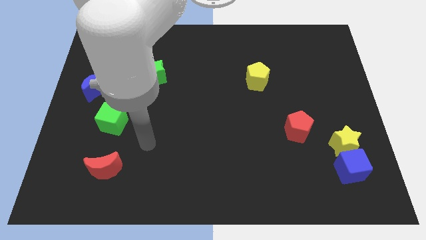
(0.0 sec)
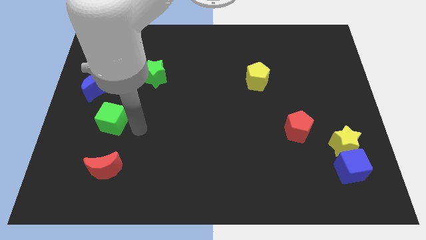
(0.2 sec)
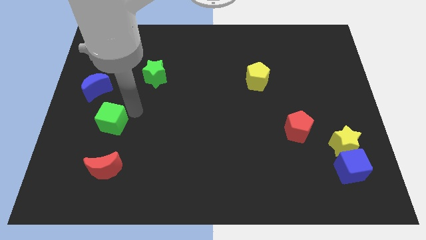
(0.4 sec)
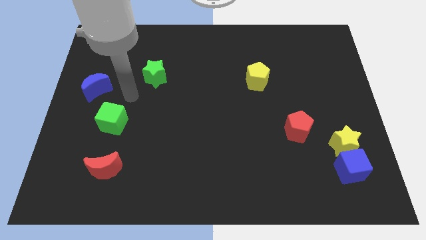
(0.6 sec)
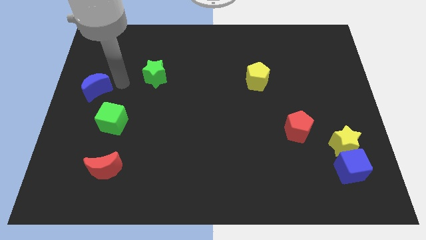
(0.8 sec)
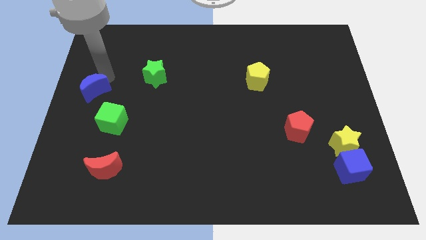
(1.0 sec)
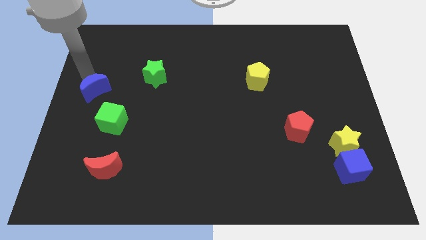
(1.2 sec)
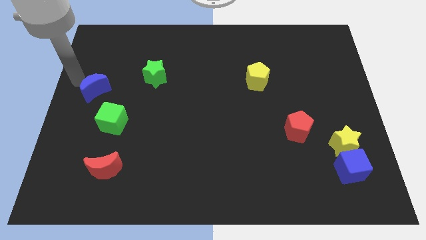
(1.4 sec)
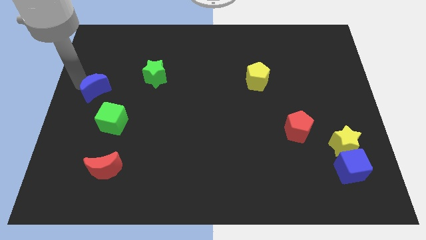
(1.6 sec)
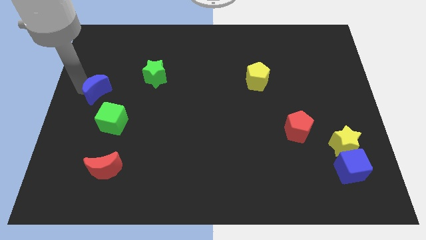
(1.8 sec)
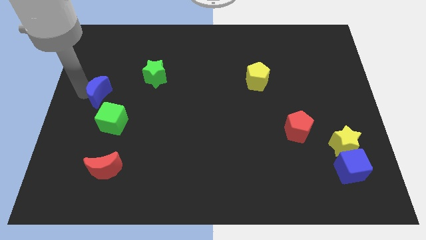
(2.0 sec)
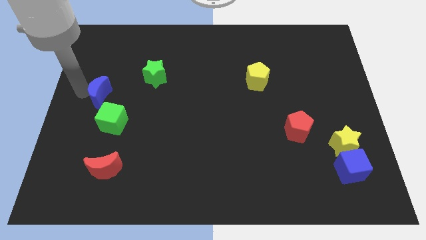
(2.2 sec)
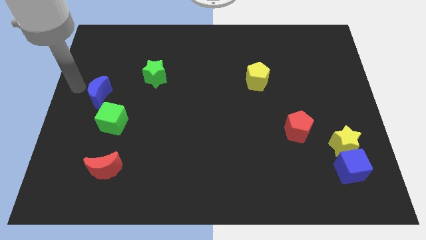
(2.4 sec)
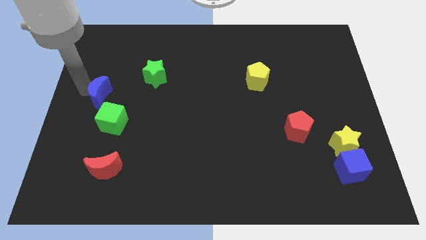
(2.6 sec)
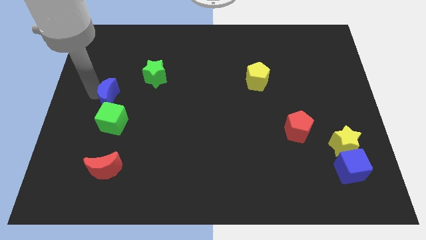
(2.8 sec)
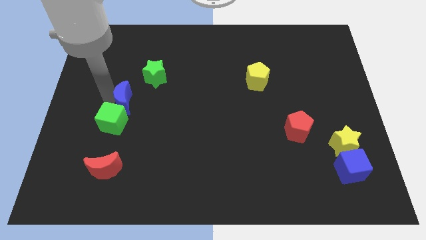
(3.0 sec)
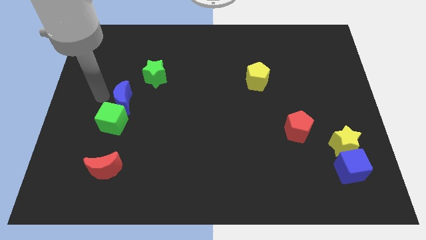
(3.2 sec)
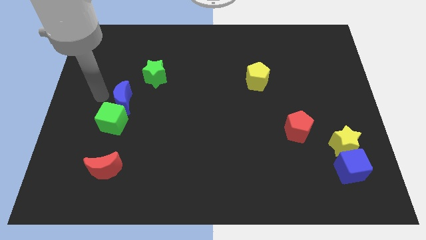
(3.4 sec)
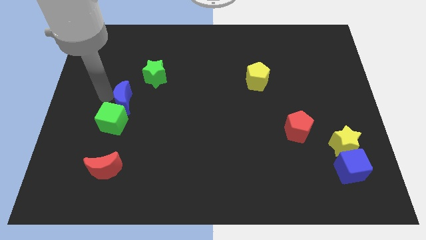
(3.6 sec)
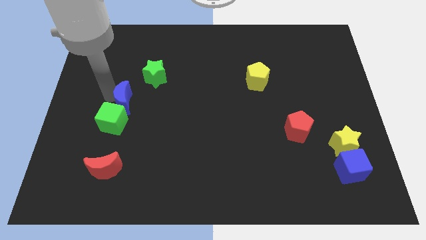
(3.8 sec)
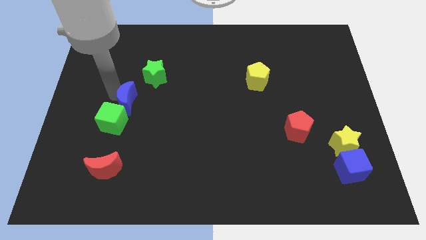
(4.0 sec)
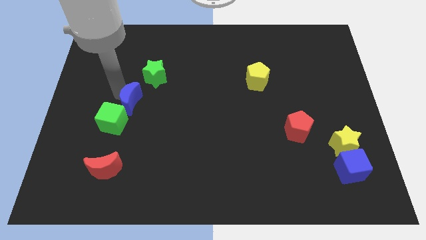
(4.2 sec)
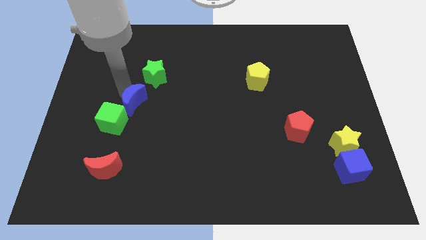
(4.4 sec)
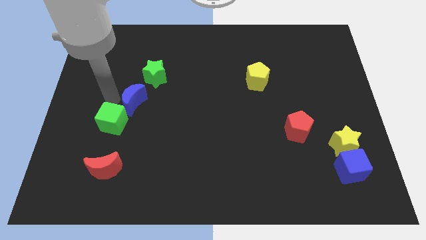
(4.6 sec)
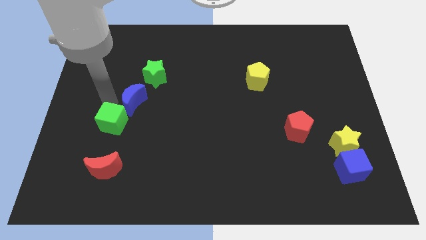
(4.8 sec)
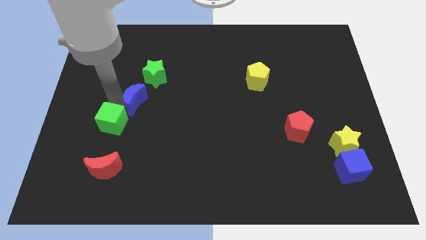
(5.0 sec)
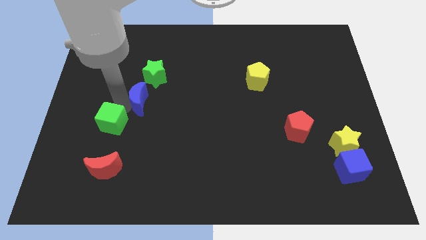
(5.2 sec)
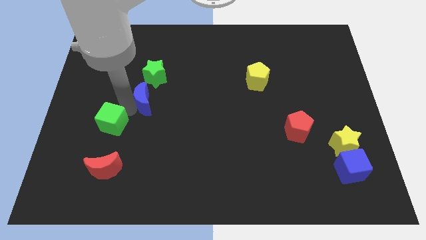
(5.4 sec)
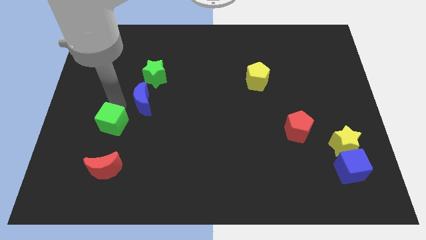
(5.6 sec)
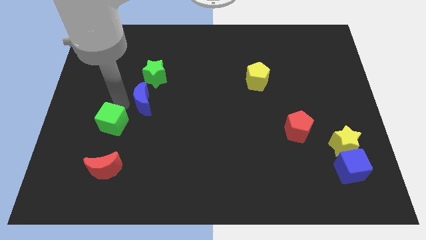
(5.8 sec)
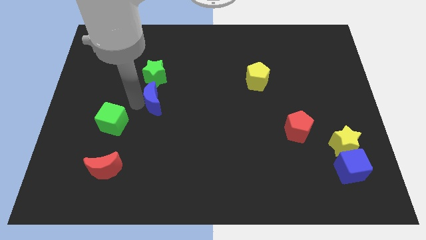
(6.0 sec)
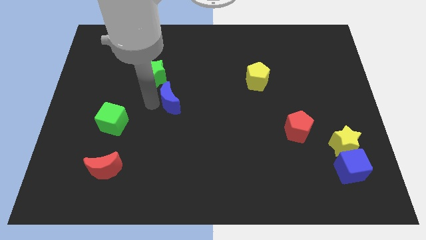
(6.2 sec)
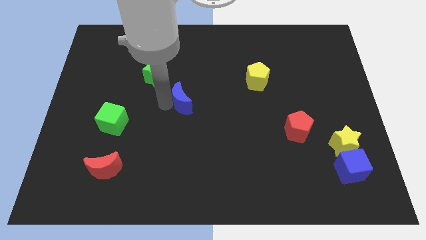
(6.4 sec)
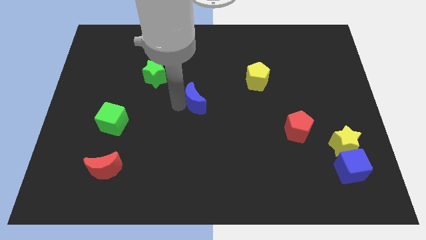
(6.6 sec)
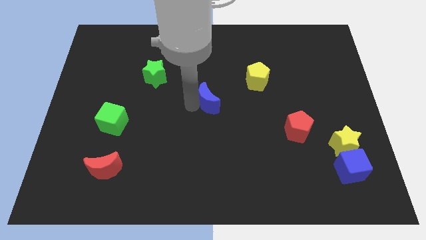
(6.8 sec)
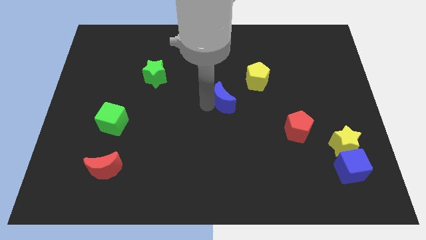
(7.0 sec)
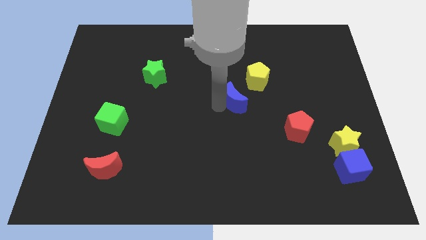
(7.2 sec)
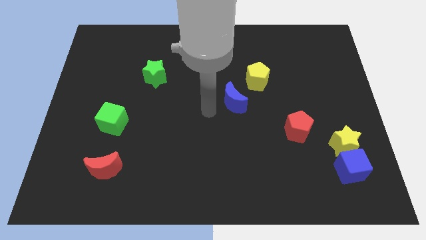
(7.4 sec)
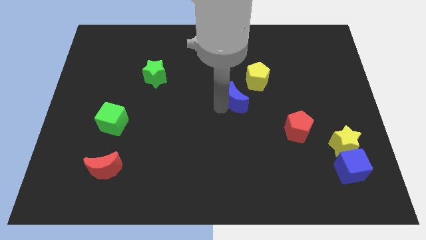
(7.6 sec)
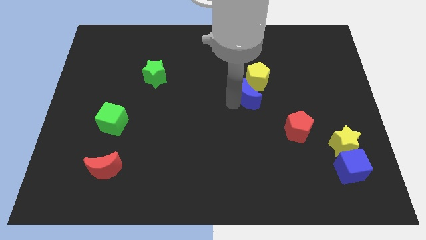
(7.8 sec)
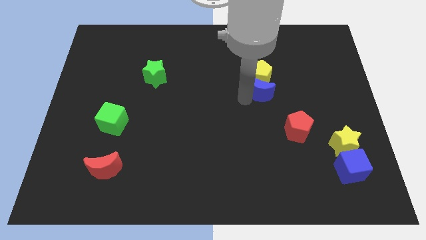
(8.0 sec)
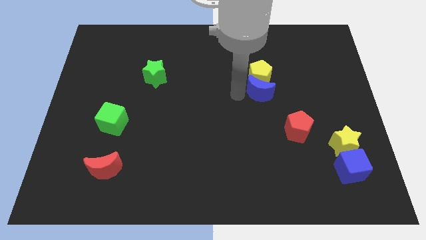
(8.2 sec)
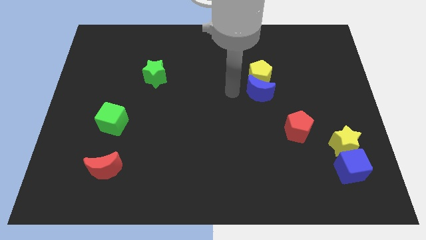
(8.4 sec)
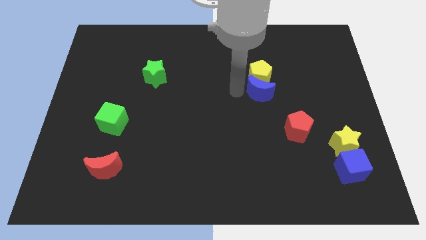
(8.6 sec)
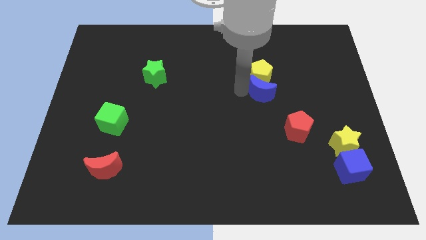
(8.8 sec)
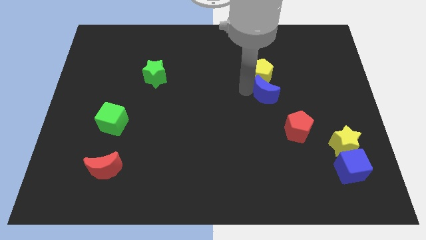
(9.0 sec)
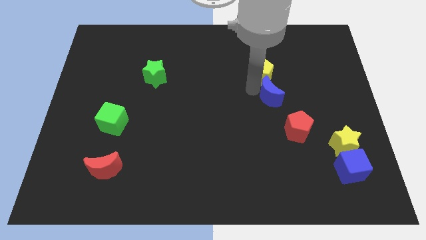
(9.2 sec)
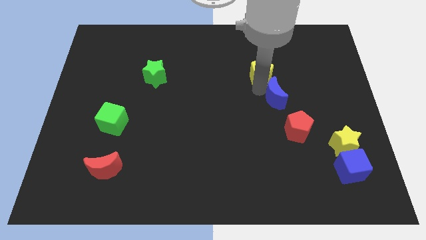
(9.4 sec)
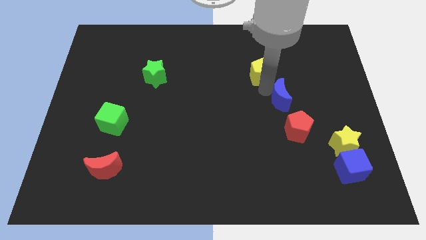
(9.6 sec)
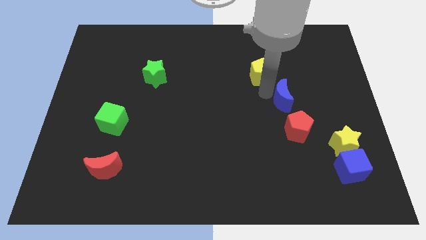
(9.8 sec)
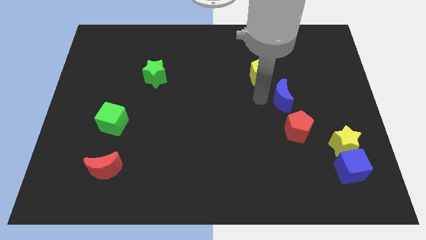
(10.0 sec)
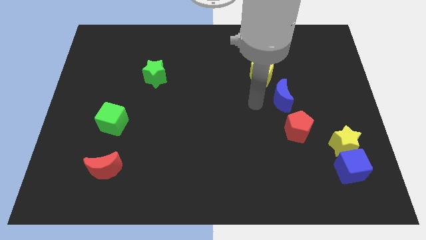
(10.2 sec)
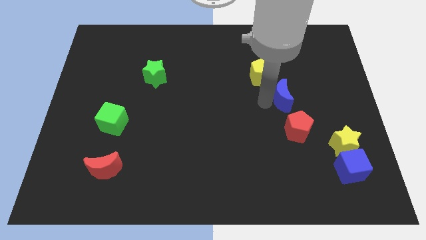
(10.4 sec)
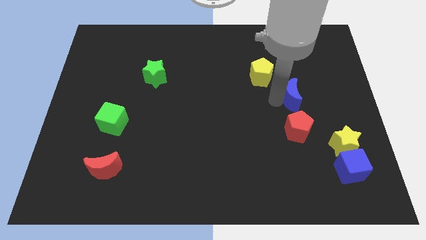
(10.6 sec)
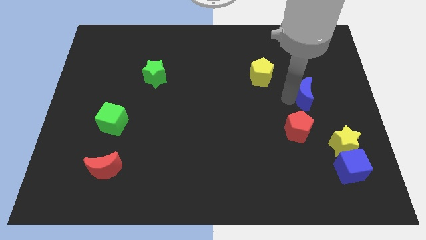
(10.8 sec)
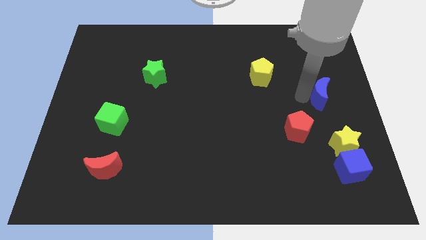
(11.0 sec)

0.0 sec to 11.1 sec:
slide the blue moon to the right side

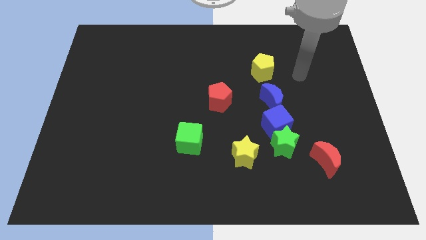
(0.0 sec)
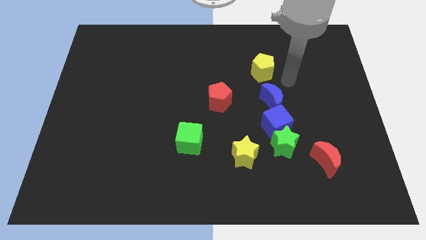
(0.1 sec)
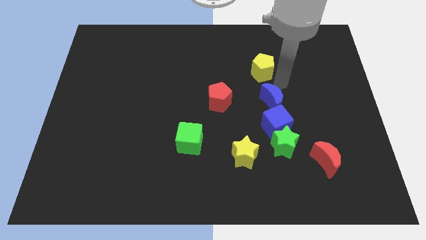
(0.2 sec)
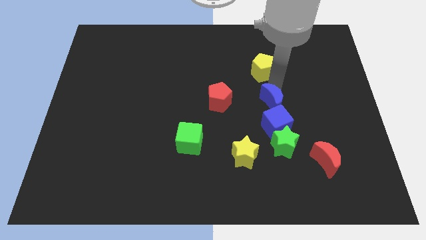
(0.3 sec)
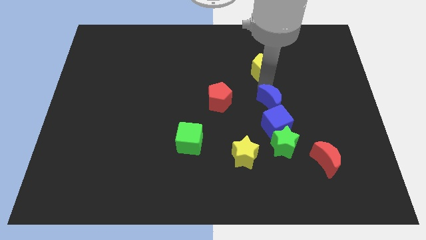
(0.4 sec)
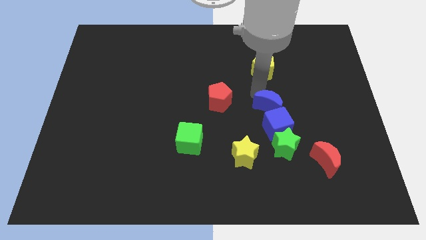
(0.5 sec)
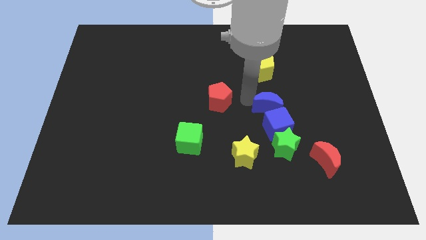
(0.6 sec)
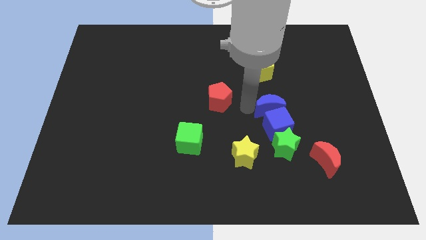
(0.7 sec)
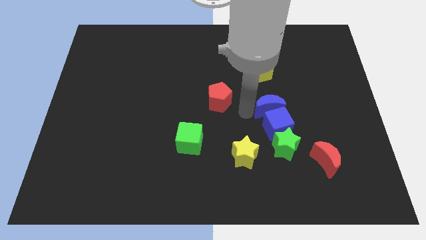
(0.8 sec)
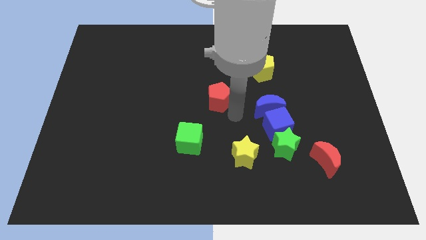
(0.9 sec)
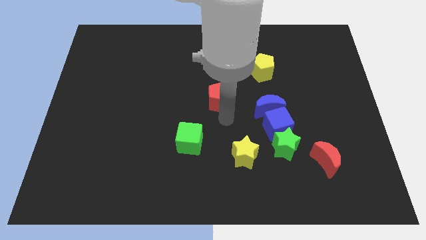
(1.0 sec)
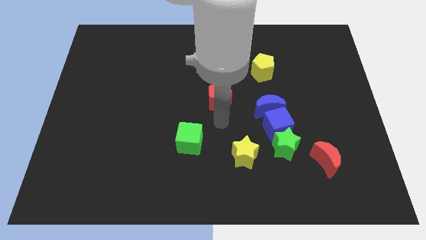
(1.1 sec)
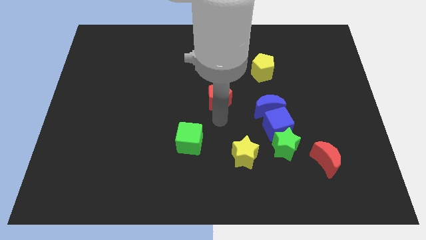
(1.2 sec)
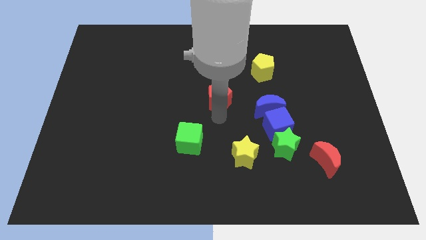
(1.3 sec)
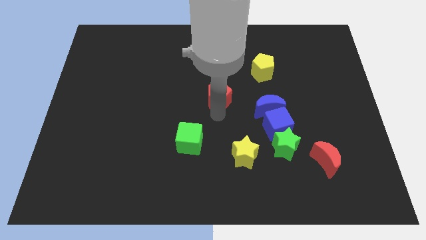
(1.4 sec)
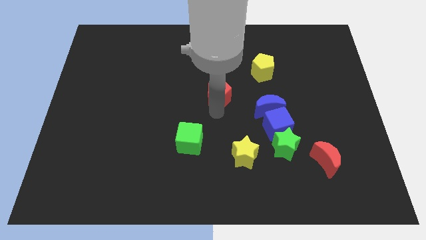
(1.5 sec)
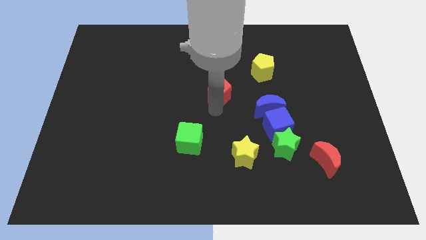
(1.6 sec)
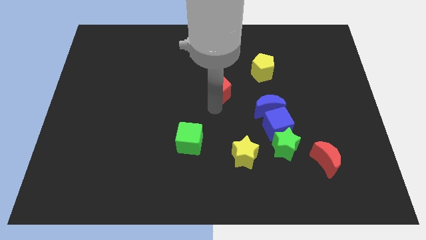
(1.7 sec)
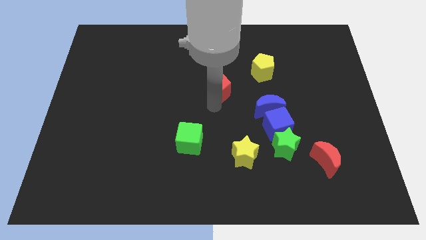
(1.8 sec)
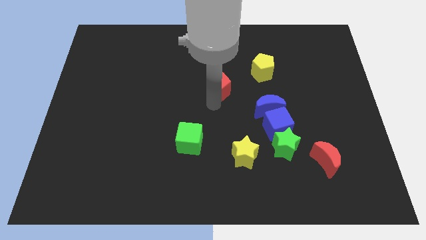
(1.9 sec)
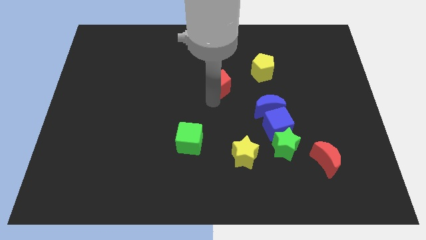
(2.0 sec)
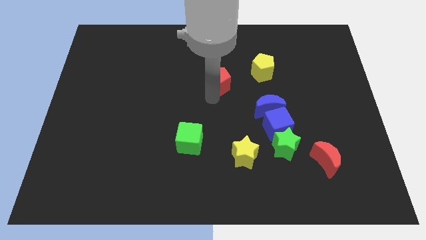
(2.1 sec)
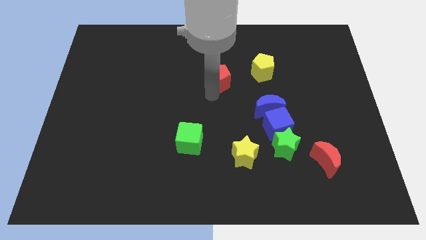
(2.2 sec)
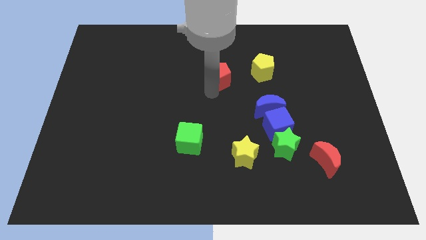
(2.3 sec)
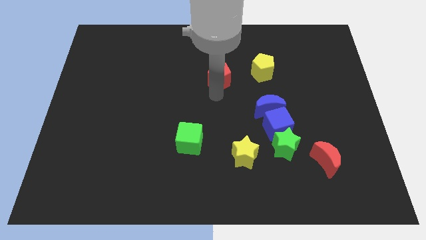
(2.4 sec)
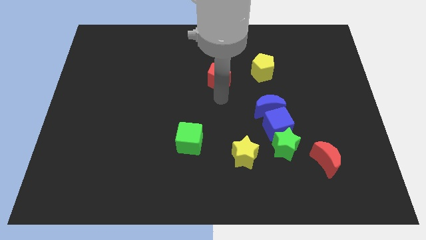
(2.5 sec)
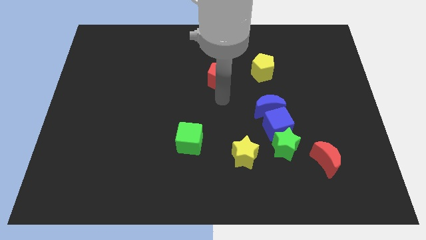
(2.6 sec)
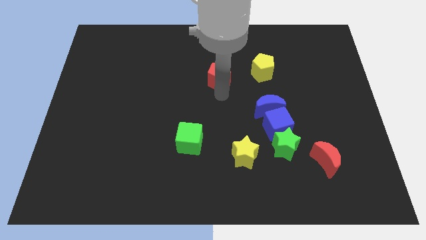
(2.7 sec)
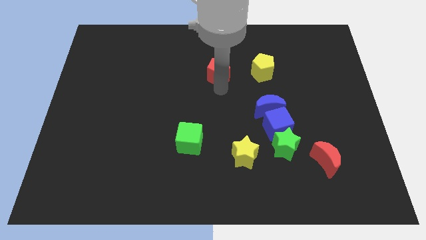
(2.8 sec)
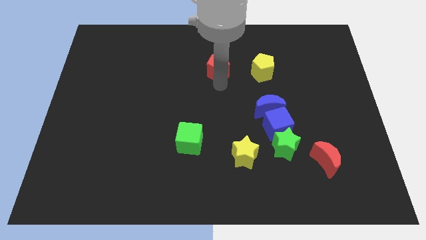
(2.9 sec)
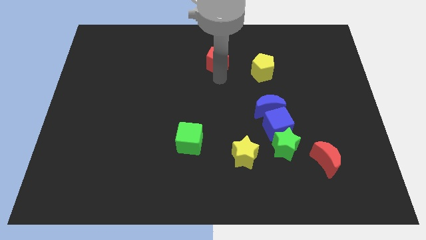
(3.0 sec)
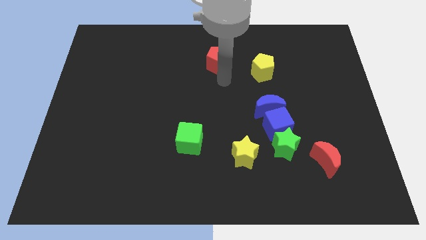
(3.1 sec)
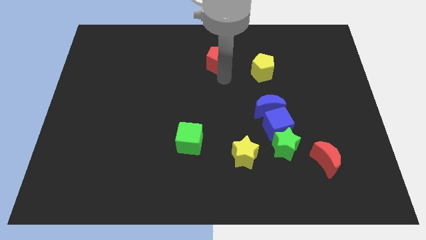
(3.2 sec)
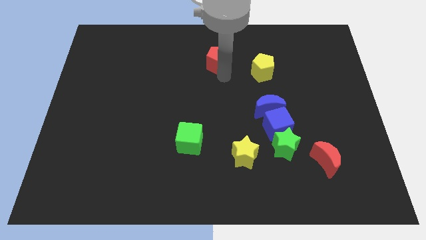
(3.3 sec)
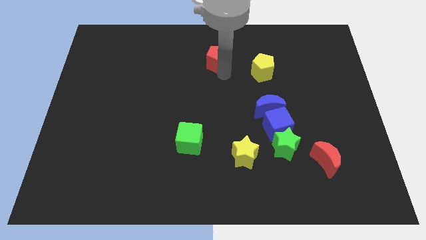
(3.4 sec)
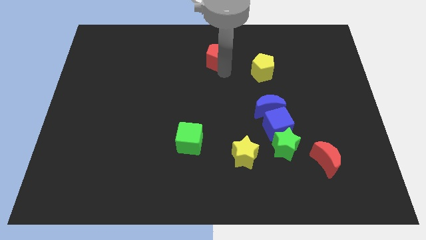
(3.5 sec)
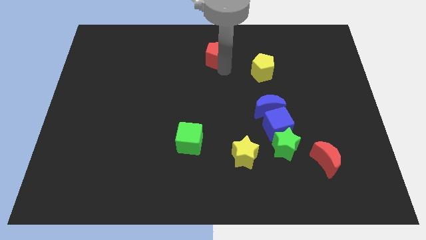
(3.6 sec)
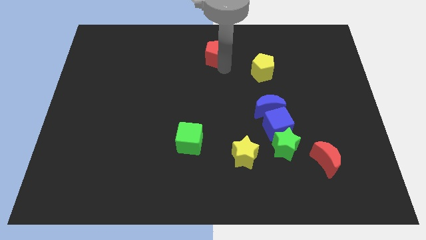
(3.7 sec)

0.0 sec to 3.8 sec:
move the red pentagon to the towards your base
